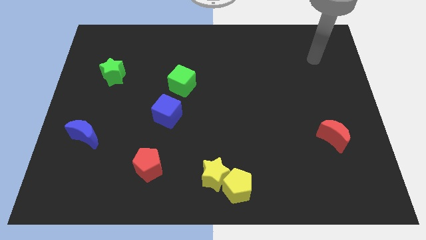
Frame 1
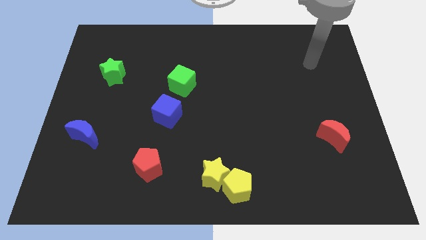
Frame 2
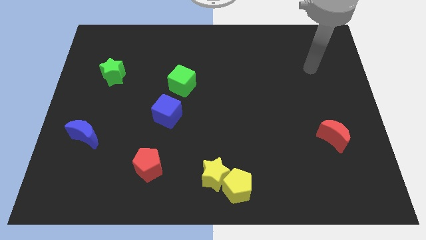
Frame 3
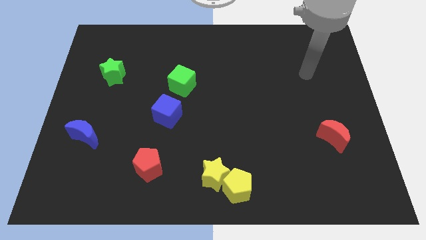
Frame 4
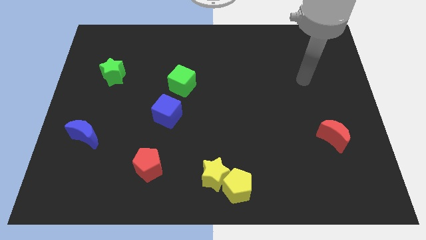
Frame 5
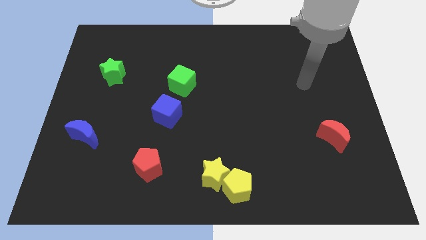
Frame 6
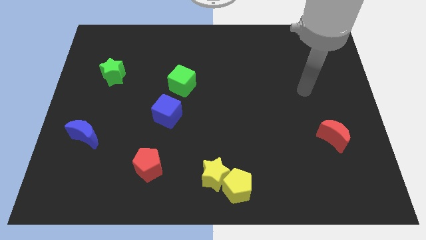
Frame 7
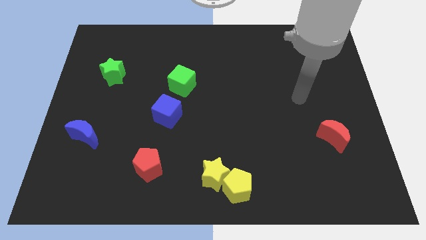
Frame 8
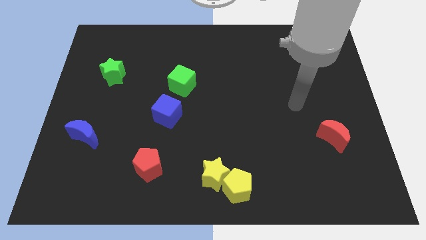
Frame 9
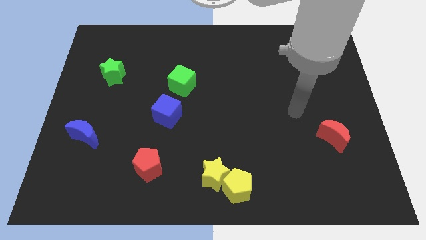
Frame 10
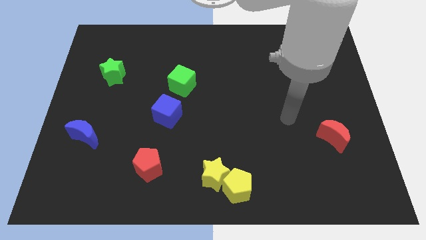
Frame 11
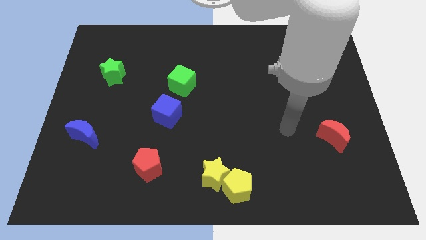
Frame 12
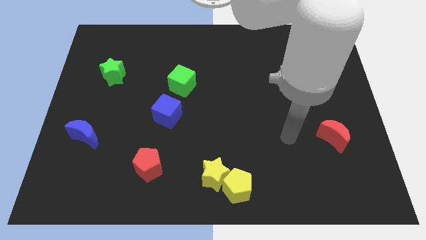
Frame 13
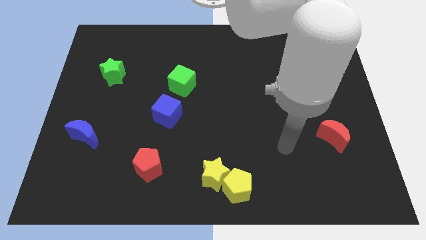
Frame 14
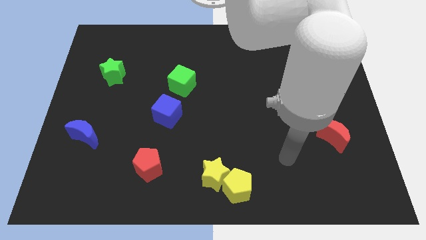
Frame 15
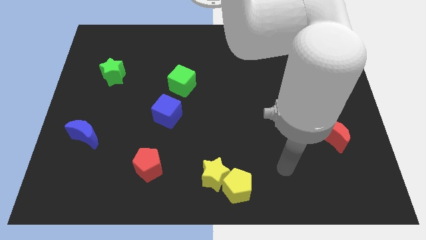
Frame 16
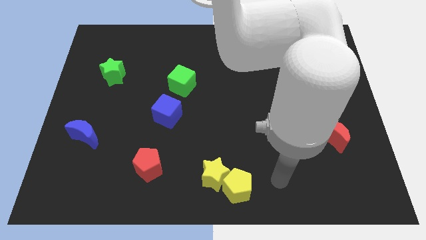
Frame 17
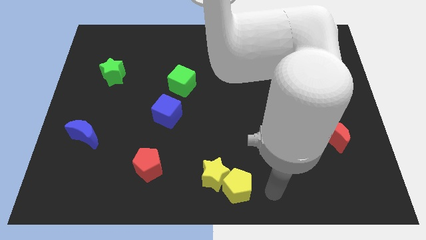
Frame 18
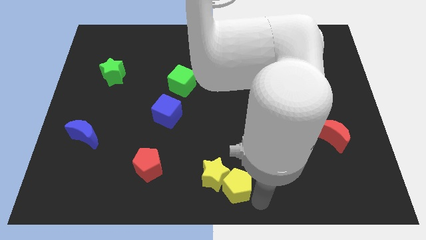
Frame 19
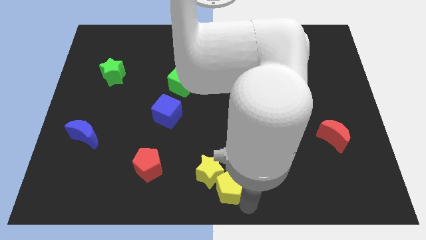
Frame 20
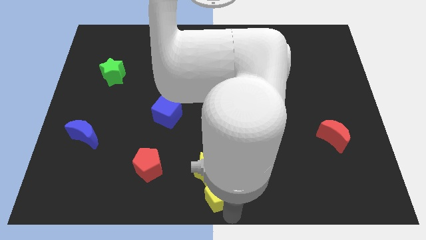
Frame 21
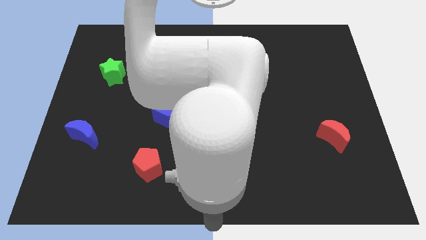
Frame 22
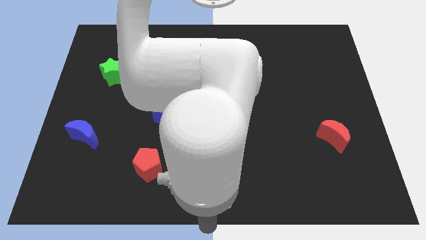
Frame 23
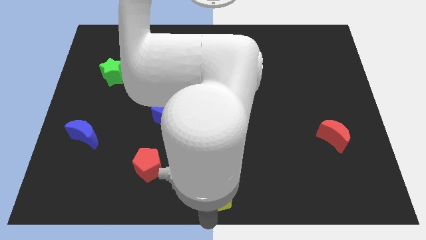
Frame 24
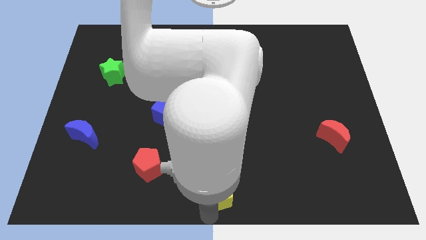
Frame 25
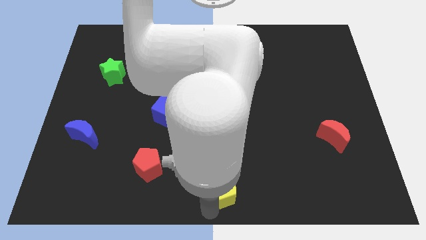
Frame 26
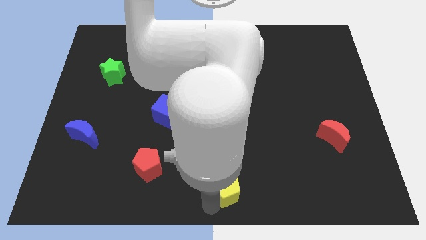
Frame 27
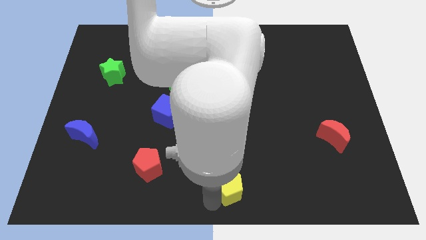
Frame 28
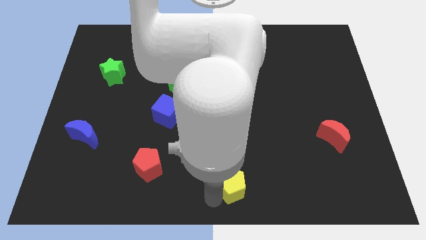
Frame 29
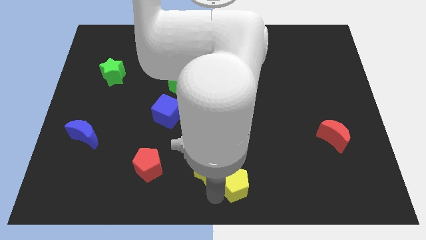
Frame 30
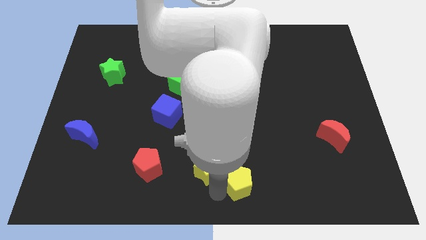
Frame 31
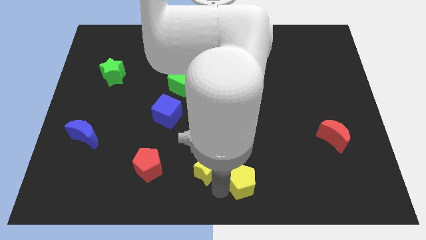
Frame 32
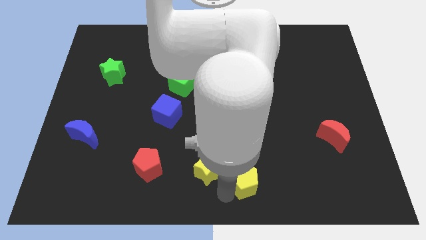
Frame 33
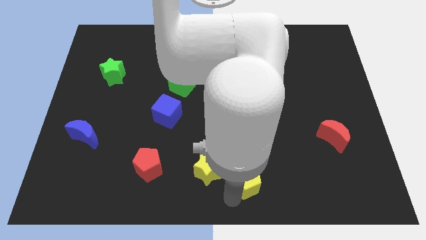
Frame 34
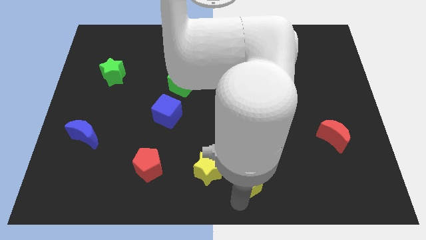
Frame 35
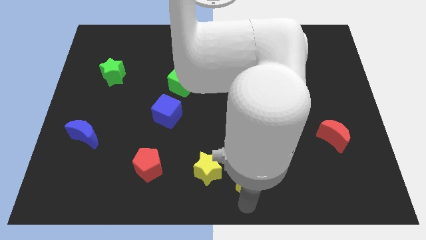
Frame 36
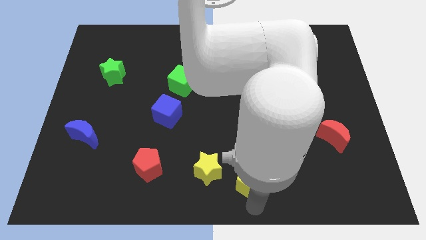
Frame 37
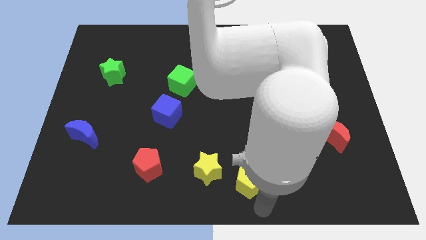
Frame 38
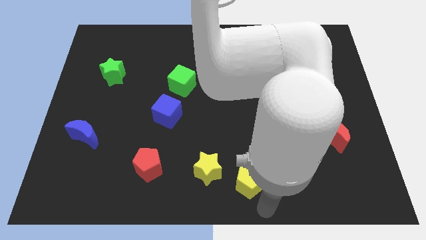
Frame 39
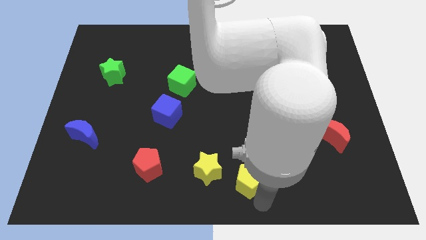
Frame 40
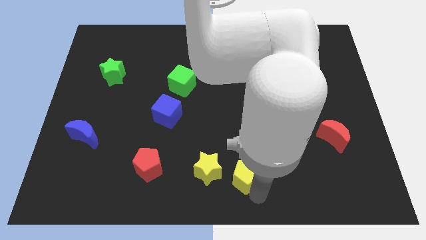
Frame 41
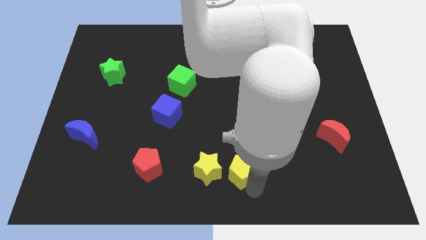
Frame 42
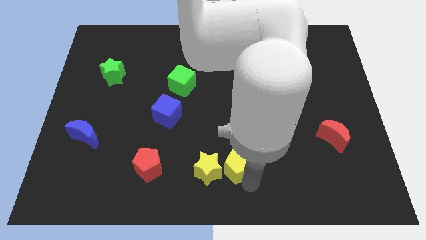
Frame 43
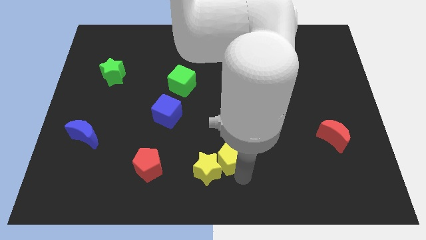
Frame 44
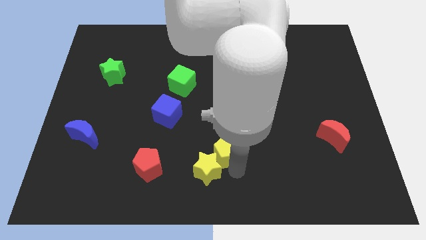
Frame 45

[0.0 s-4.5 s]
push the yellow pentagon upwards slightly

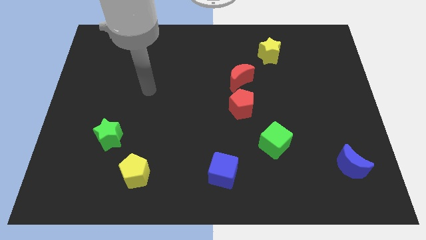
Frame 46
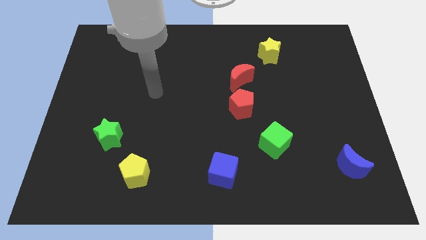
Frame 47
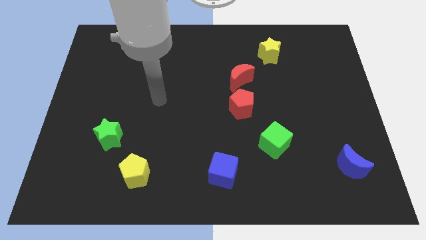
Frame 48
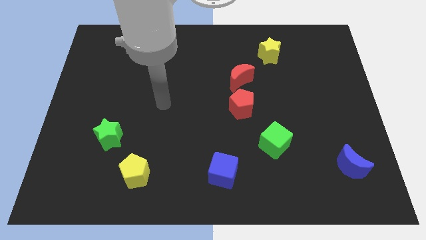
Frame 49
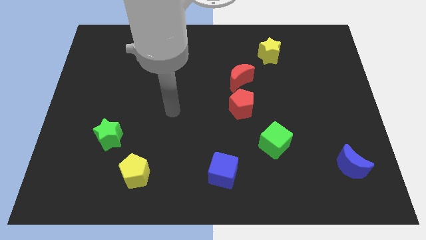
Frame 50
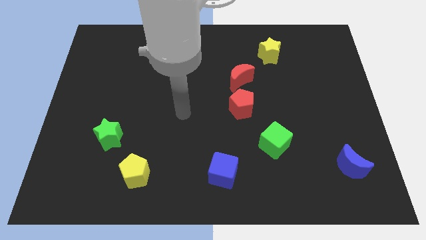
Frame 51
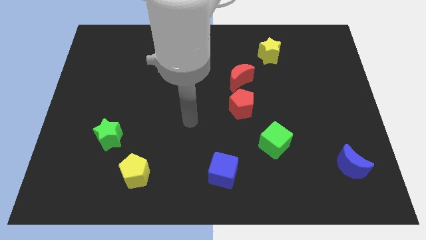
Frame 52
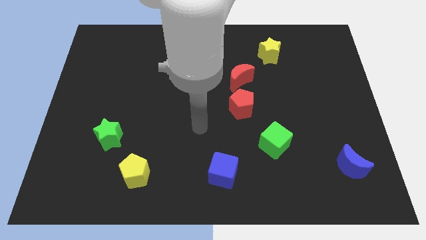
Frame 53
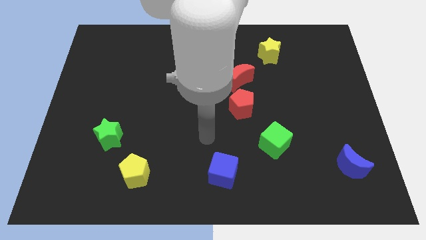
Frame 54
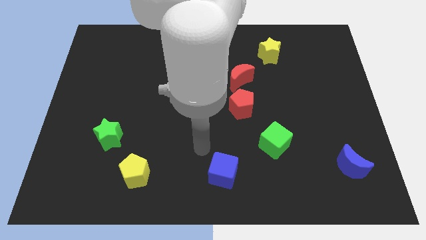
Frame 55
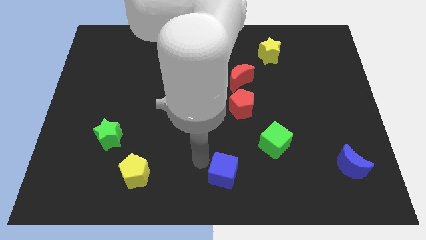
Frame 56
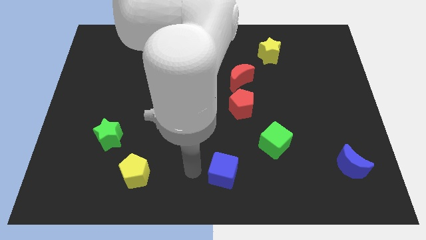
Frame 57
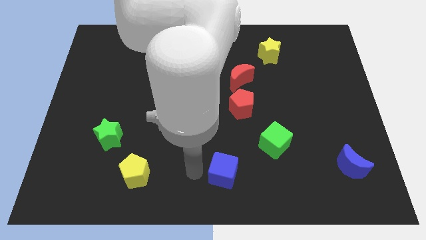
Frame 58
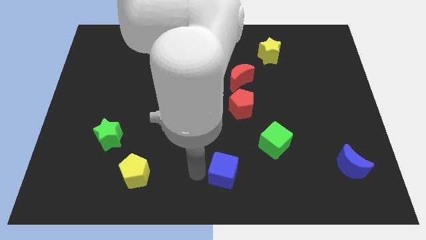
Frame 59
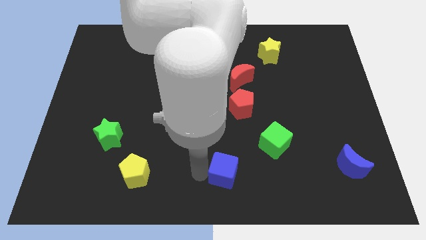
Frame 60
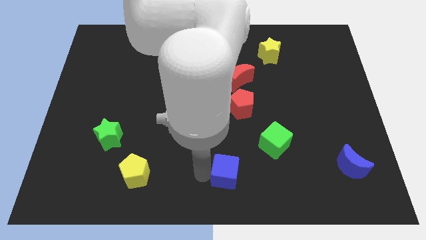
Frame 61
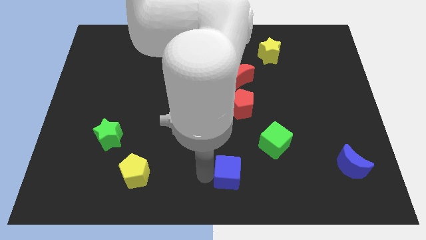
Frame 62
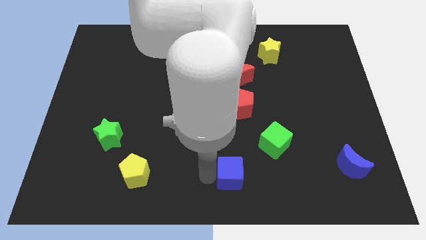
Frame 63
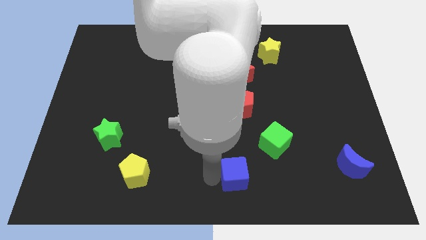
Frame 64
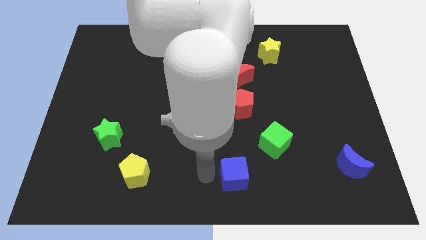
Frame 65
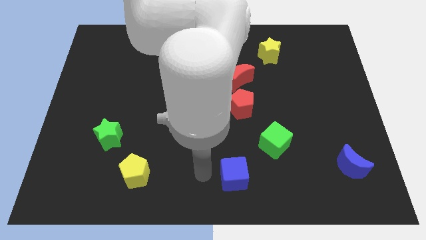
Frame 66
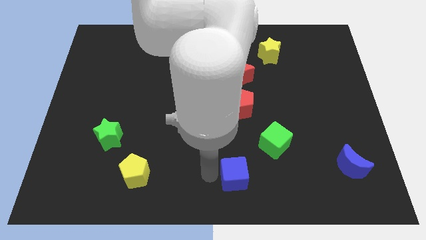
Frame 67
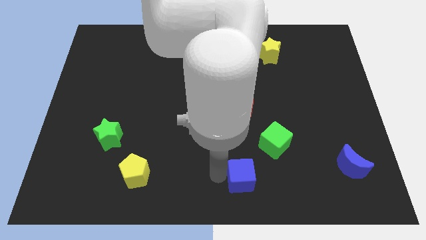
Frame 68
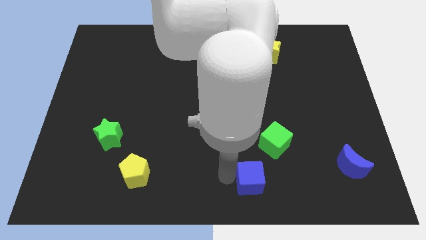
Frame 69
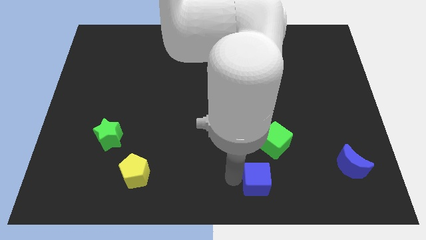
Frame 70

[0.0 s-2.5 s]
slide the blue cube to the right somewhat

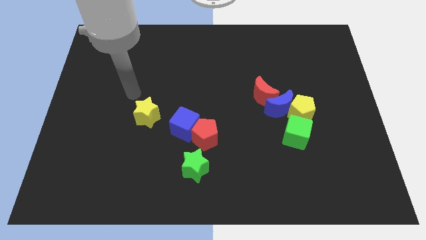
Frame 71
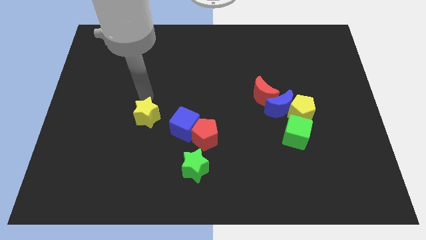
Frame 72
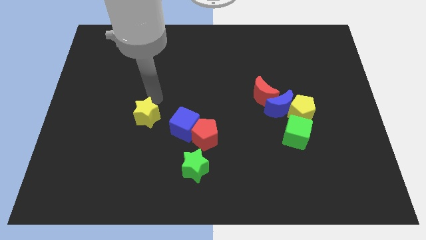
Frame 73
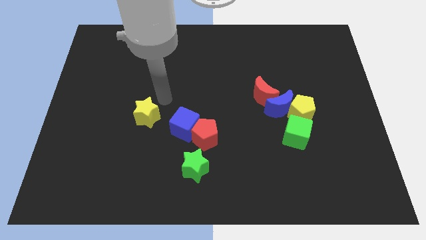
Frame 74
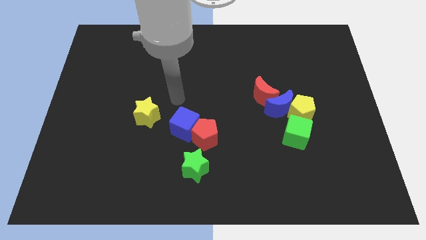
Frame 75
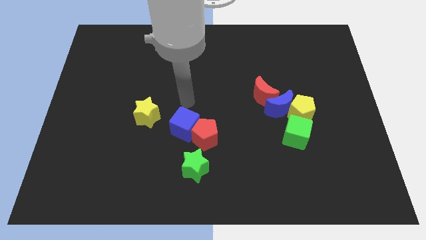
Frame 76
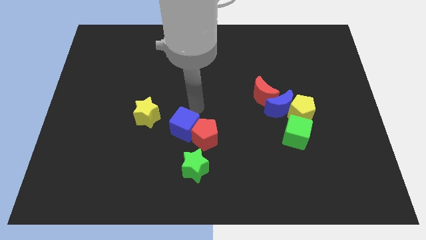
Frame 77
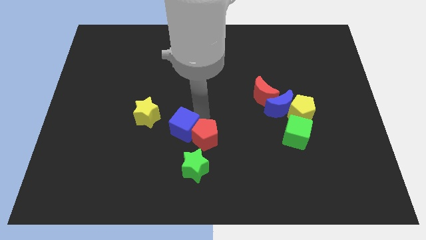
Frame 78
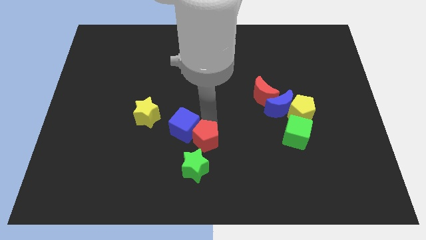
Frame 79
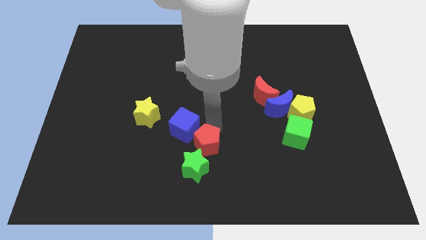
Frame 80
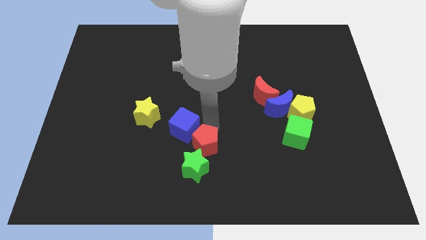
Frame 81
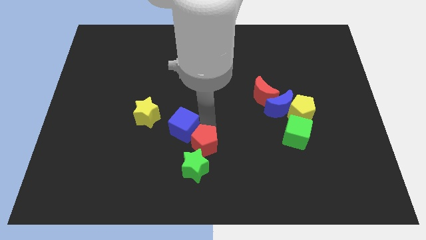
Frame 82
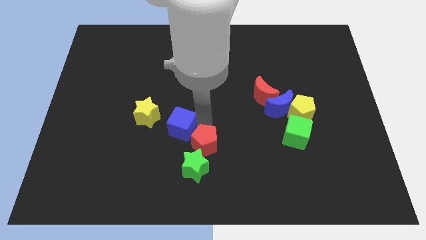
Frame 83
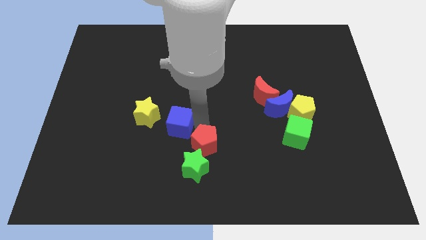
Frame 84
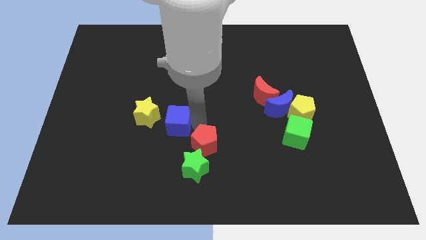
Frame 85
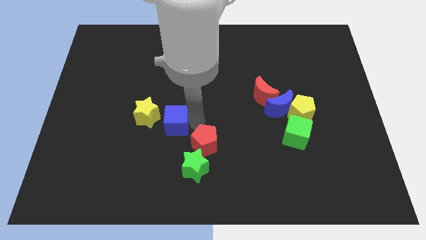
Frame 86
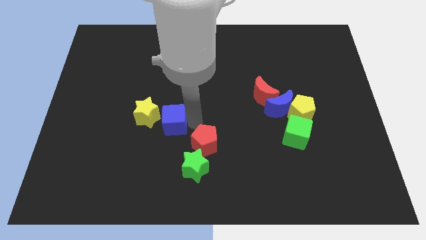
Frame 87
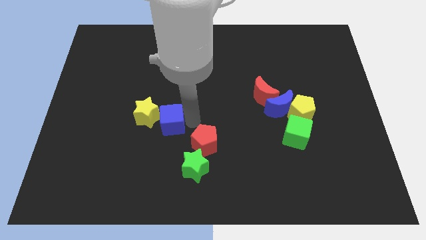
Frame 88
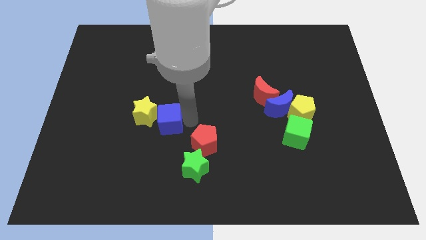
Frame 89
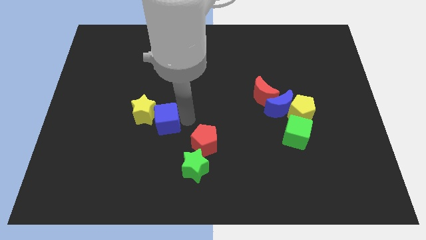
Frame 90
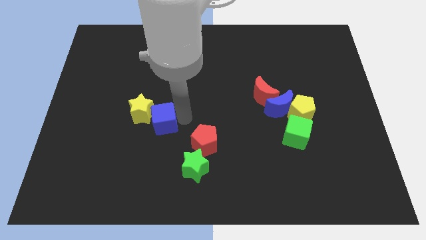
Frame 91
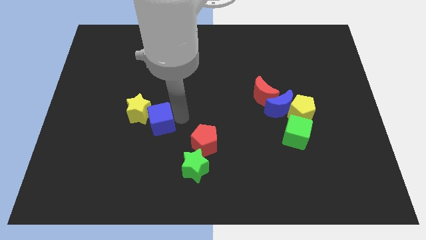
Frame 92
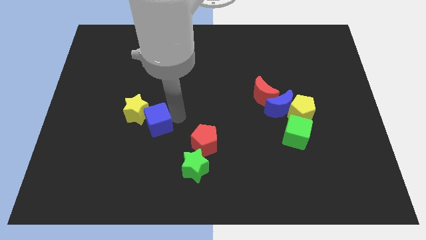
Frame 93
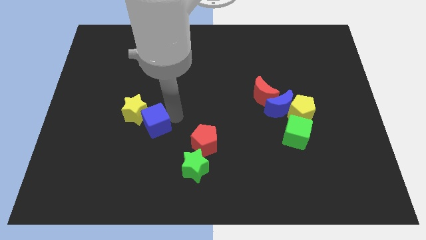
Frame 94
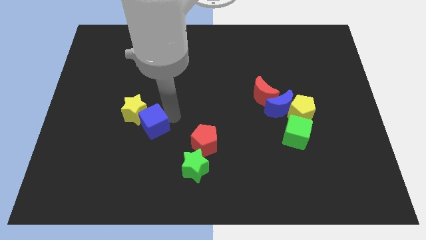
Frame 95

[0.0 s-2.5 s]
slightly push the blue cube to the left
